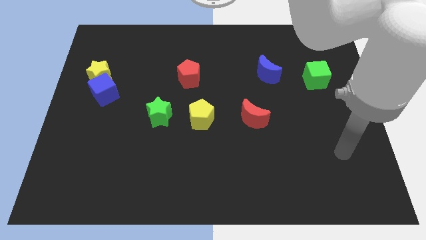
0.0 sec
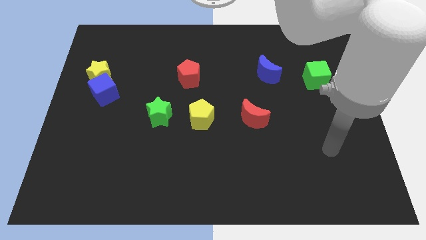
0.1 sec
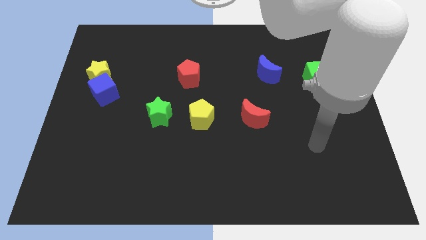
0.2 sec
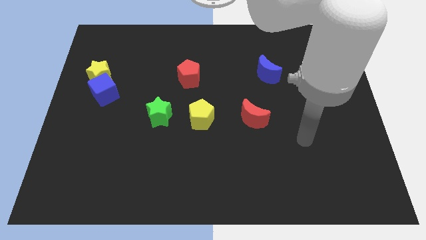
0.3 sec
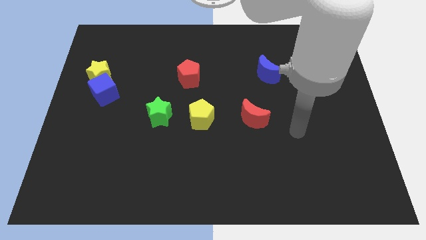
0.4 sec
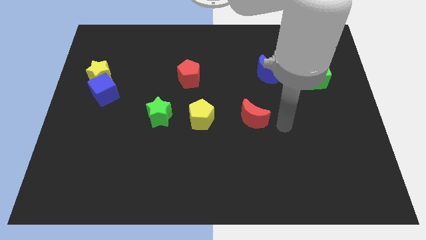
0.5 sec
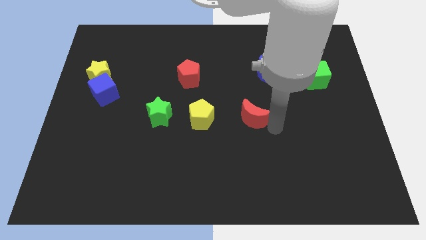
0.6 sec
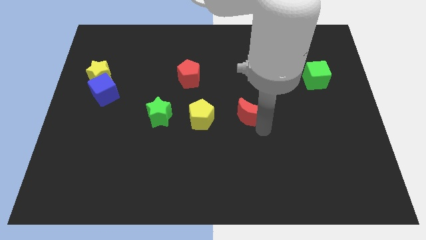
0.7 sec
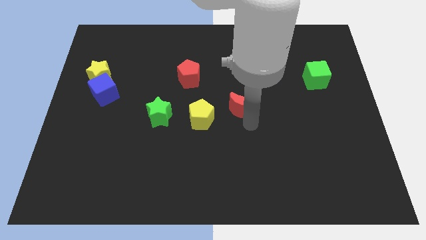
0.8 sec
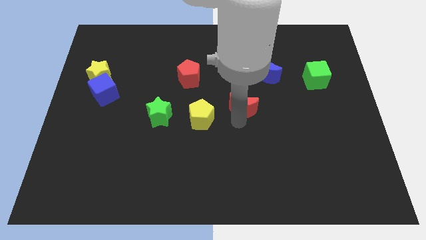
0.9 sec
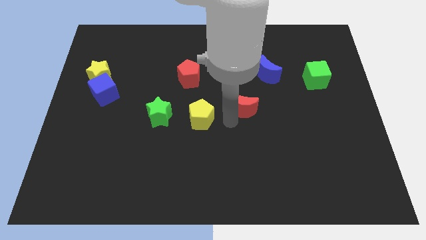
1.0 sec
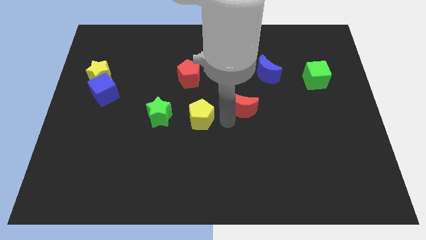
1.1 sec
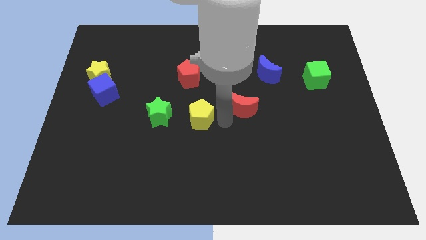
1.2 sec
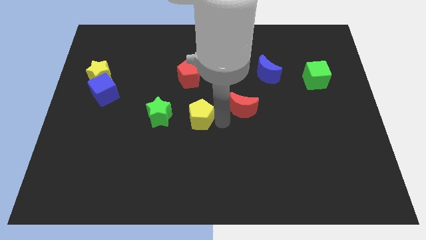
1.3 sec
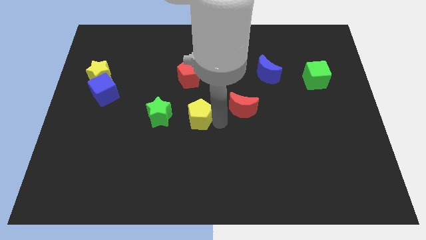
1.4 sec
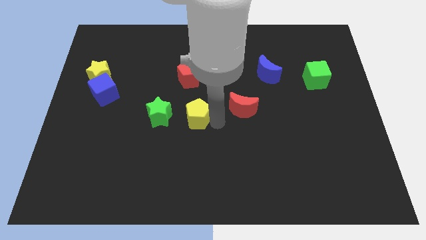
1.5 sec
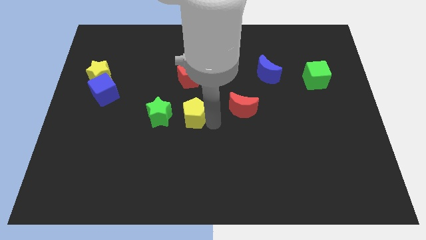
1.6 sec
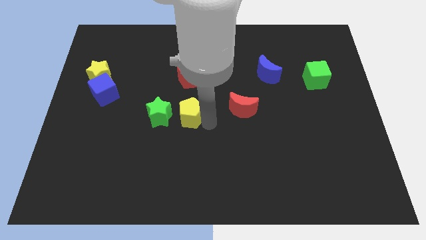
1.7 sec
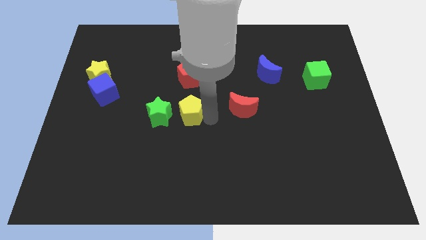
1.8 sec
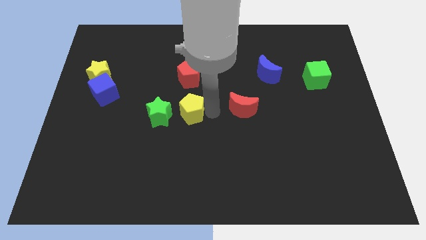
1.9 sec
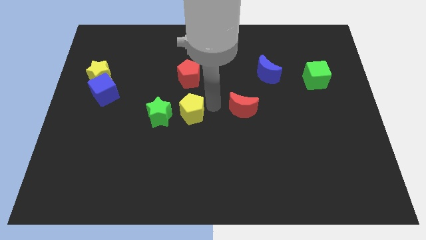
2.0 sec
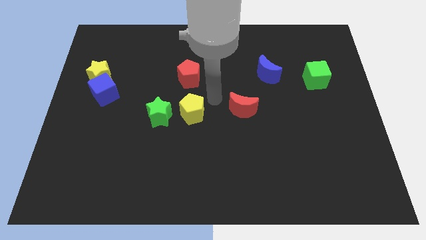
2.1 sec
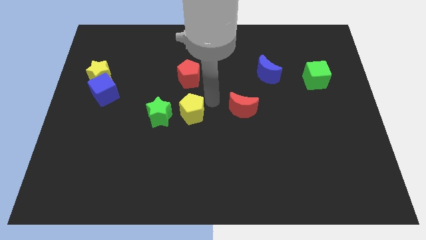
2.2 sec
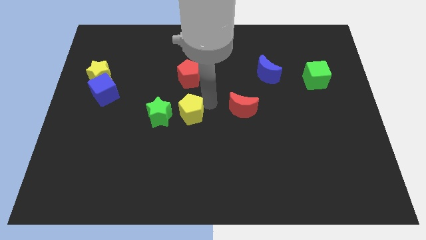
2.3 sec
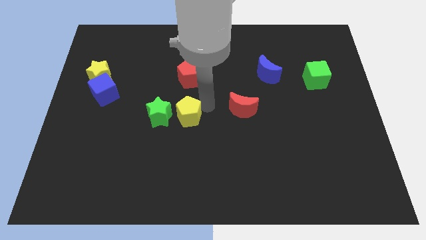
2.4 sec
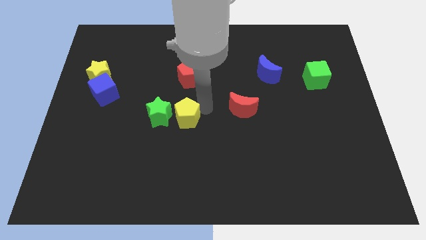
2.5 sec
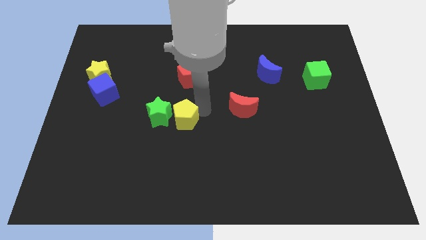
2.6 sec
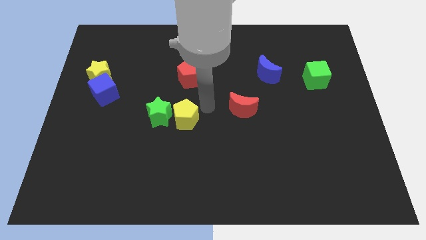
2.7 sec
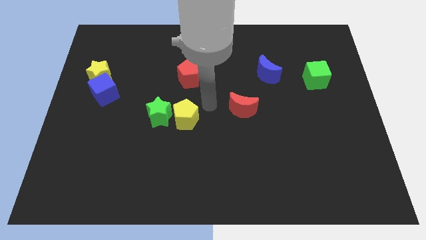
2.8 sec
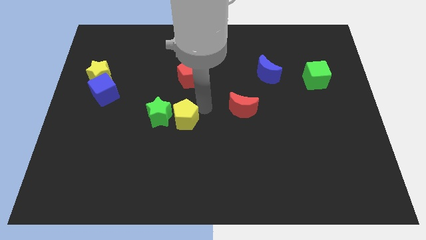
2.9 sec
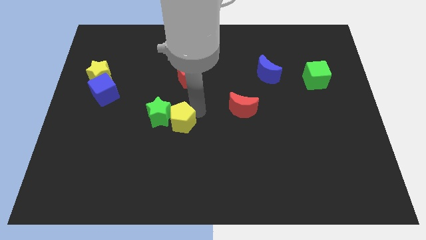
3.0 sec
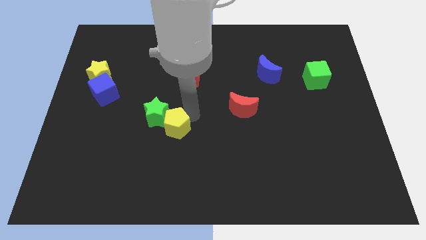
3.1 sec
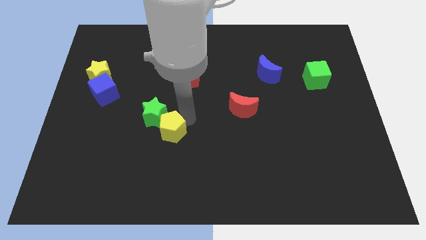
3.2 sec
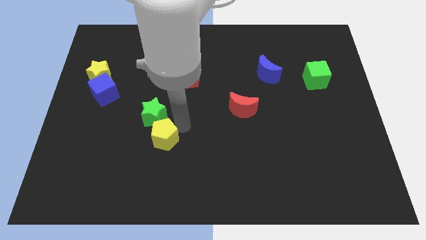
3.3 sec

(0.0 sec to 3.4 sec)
slide the yellow pentagon a little left

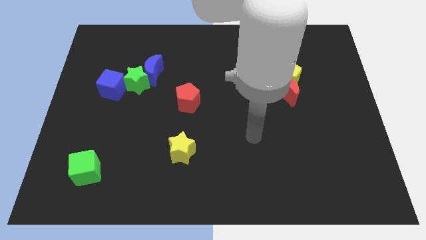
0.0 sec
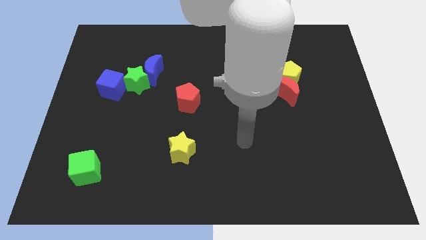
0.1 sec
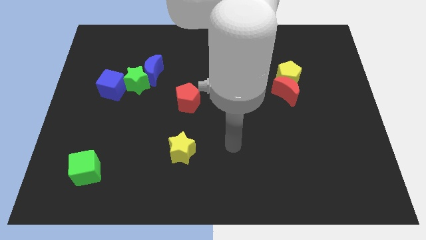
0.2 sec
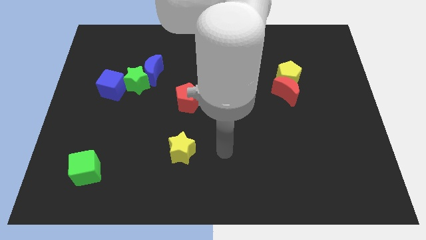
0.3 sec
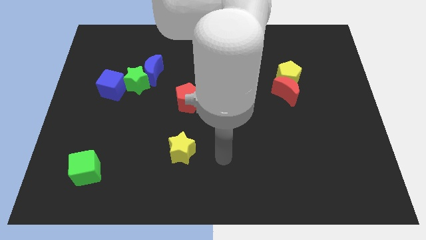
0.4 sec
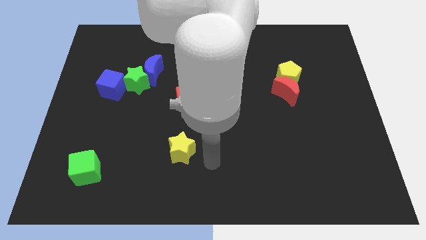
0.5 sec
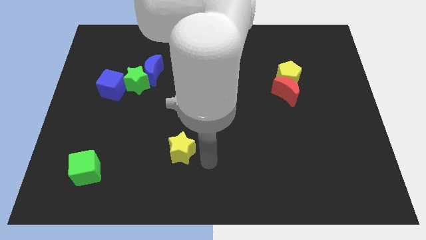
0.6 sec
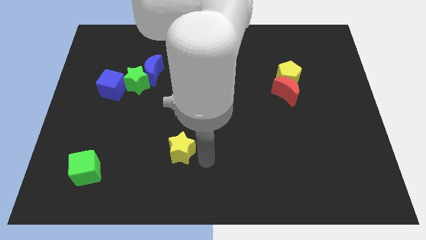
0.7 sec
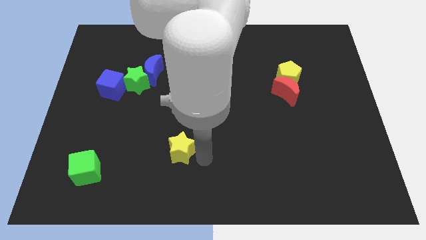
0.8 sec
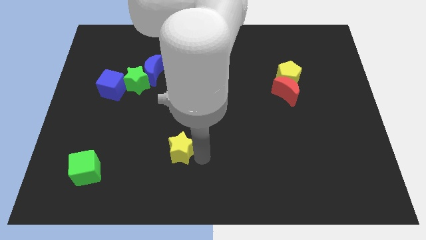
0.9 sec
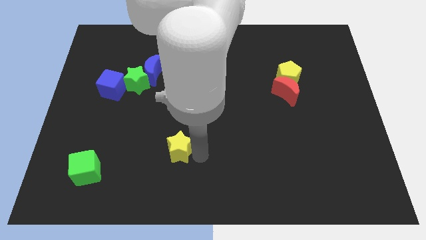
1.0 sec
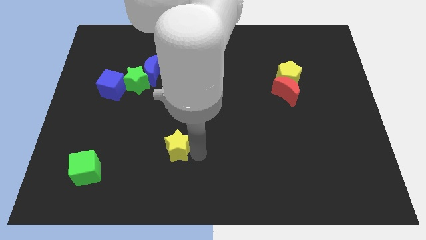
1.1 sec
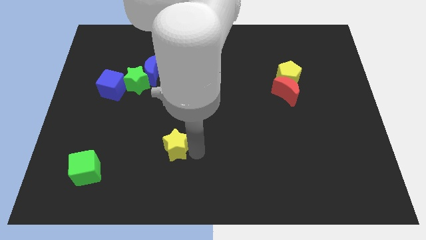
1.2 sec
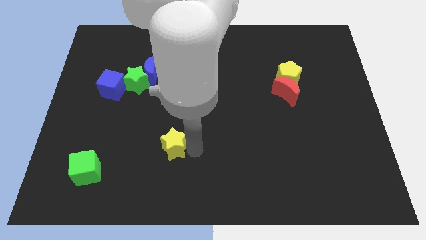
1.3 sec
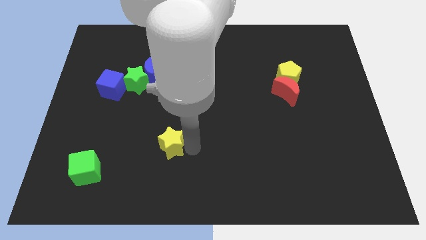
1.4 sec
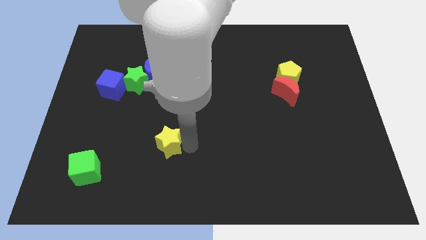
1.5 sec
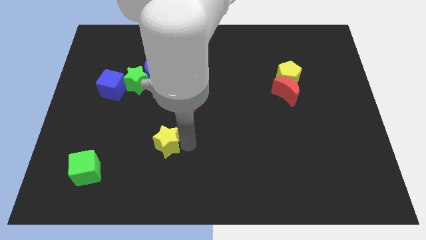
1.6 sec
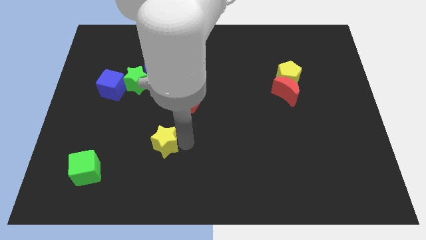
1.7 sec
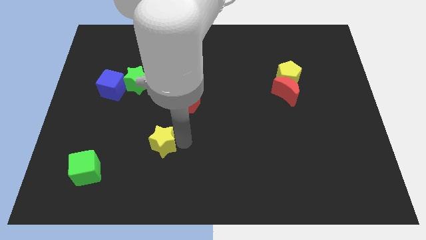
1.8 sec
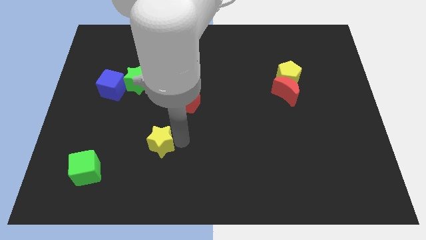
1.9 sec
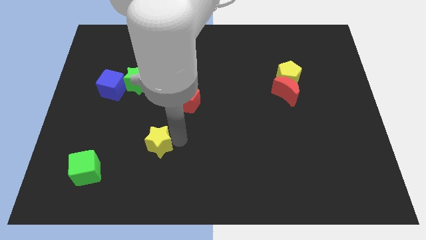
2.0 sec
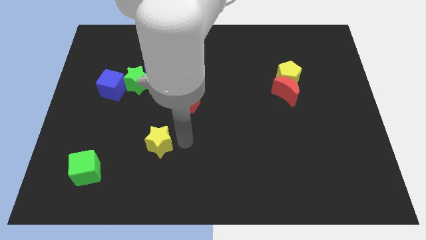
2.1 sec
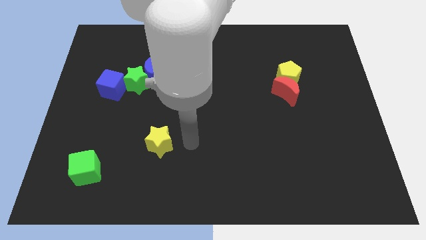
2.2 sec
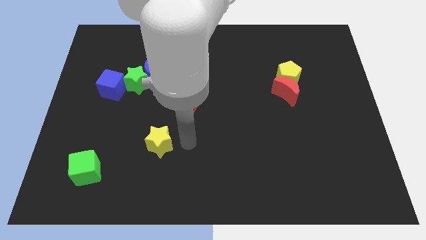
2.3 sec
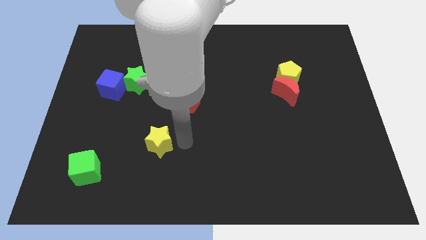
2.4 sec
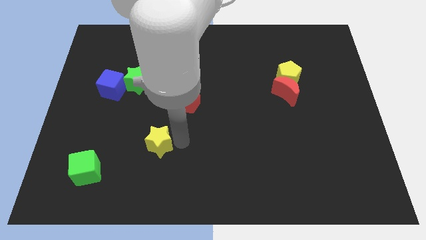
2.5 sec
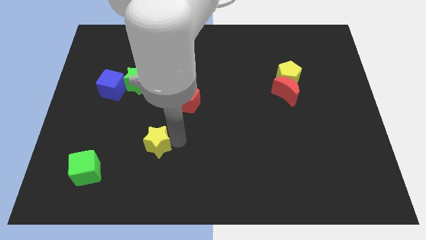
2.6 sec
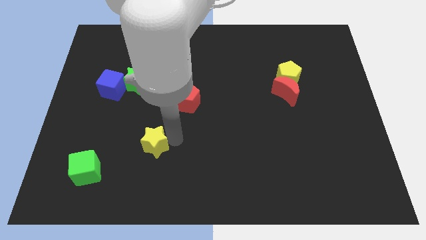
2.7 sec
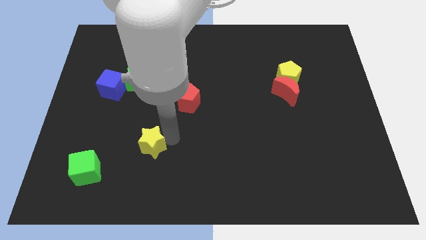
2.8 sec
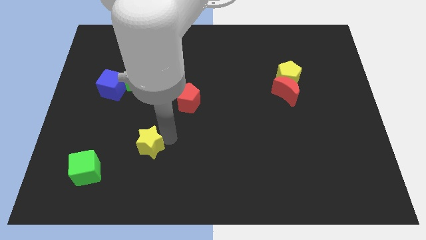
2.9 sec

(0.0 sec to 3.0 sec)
move the yellow star to the left a bit

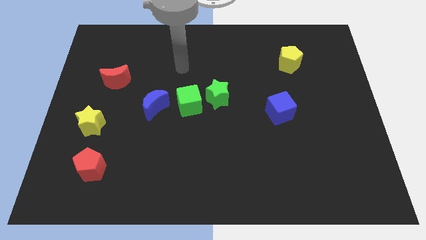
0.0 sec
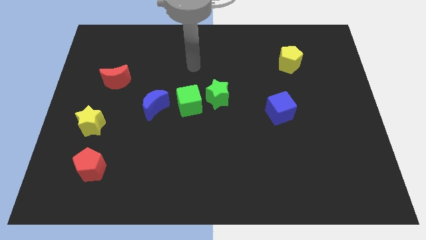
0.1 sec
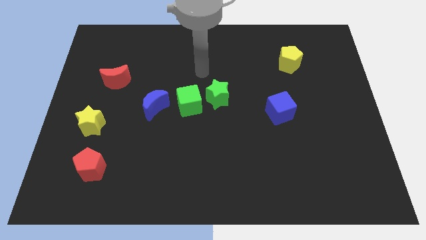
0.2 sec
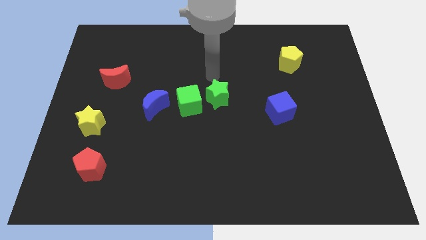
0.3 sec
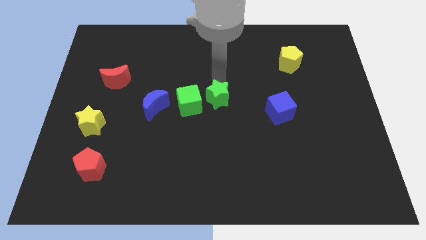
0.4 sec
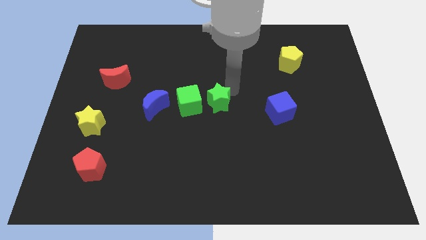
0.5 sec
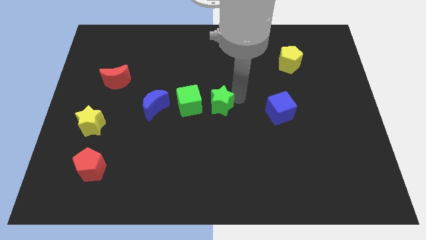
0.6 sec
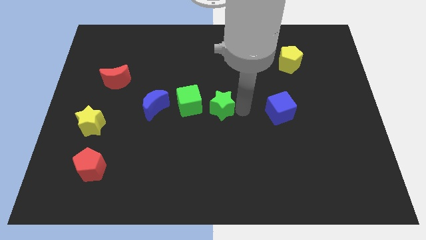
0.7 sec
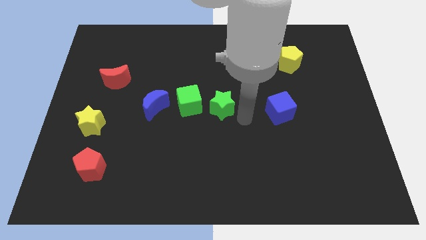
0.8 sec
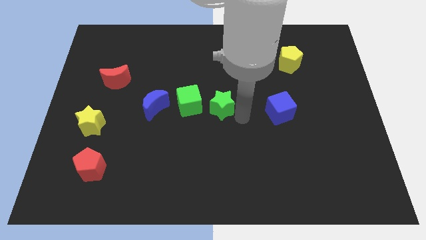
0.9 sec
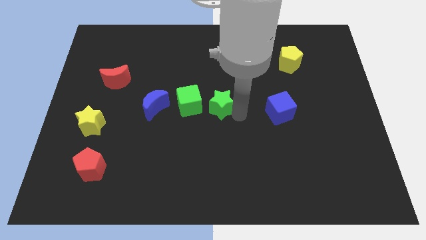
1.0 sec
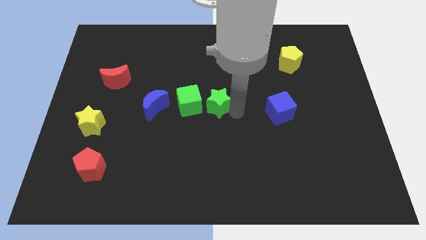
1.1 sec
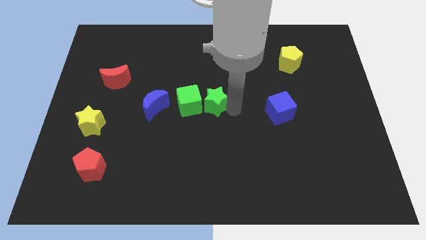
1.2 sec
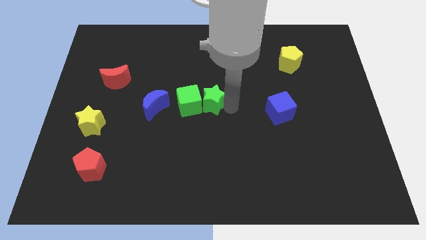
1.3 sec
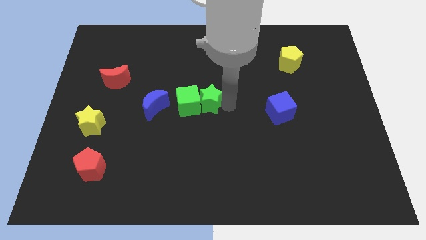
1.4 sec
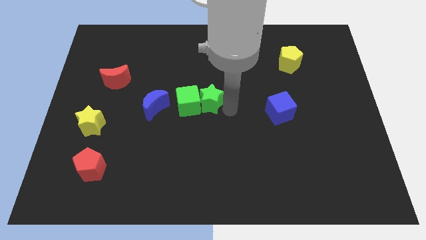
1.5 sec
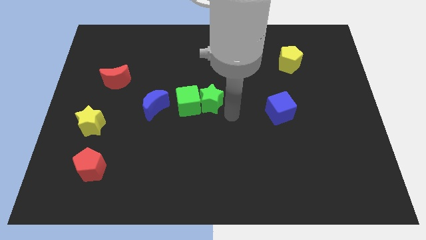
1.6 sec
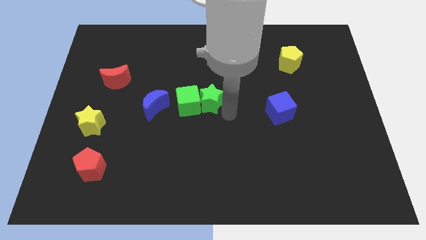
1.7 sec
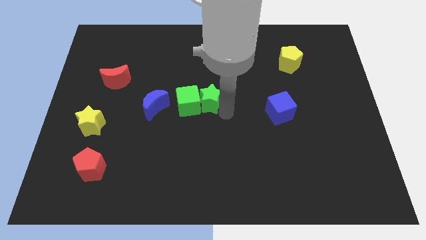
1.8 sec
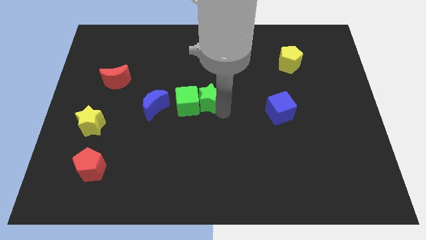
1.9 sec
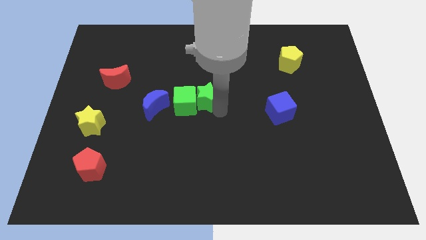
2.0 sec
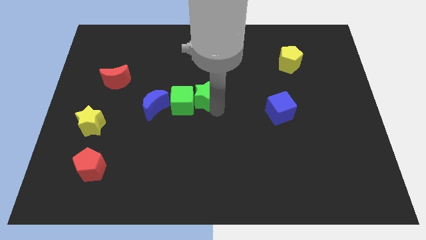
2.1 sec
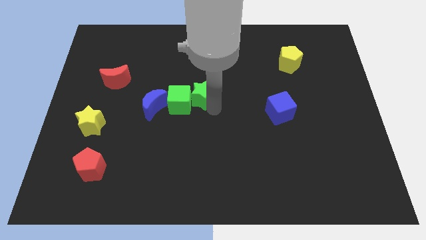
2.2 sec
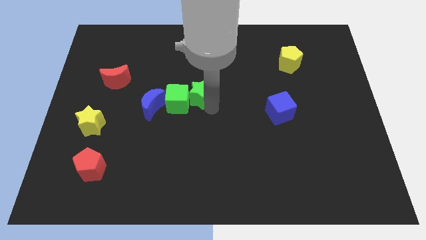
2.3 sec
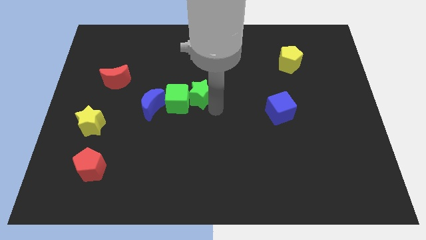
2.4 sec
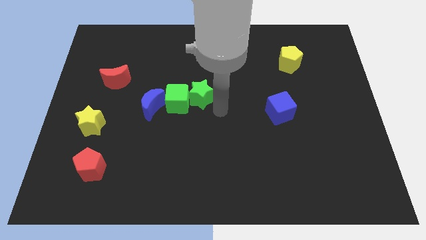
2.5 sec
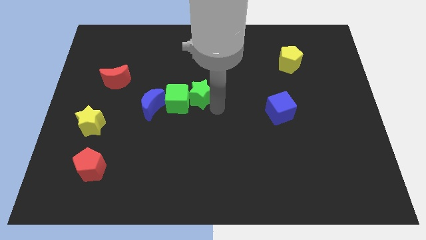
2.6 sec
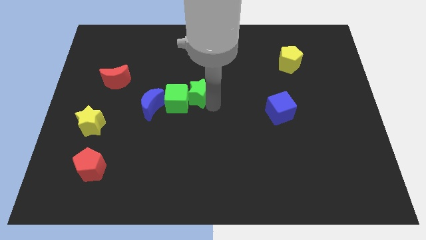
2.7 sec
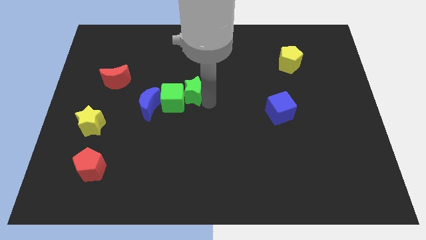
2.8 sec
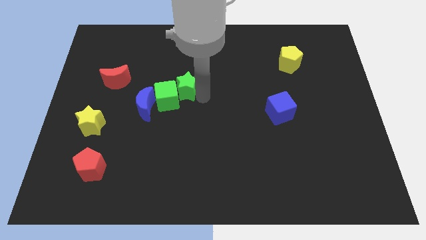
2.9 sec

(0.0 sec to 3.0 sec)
move the green star somewhat left
